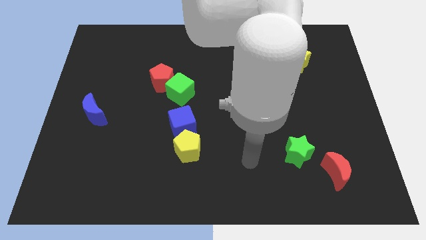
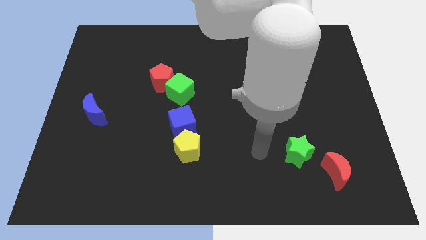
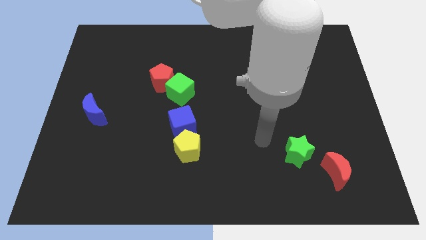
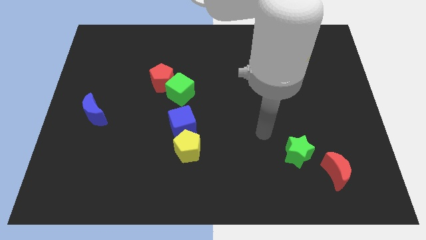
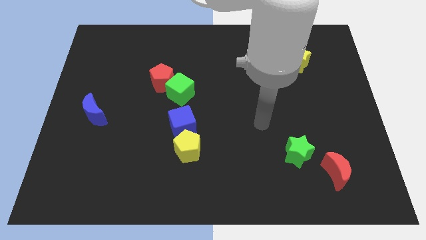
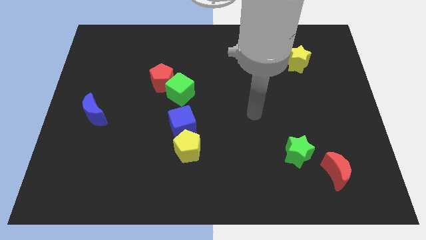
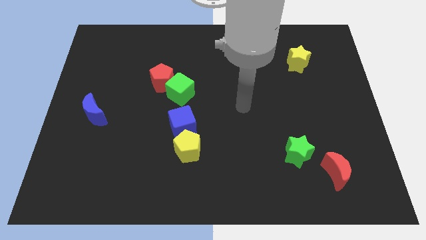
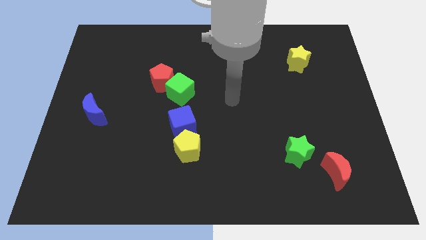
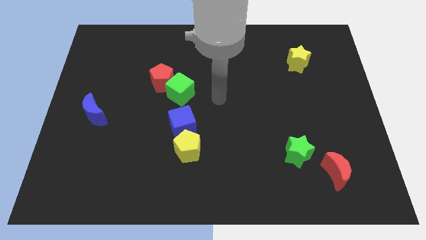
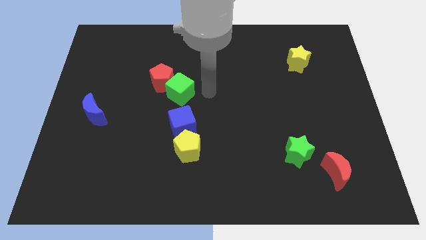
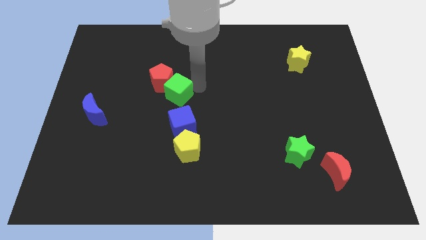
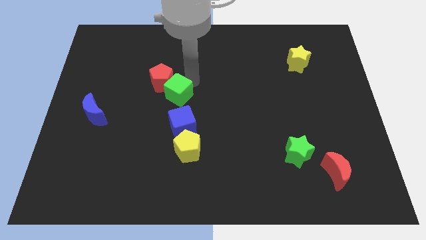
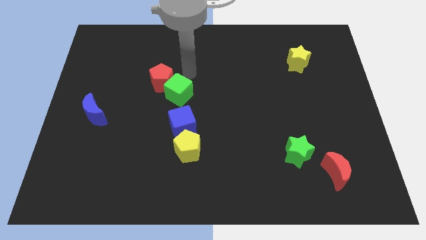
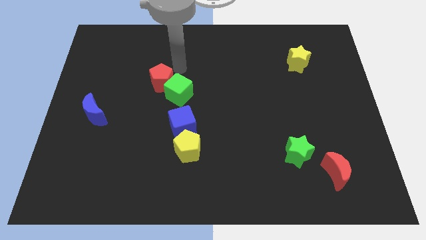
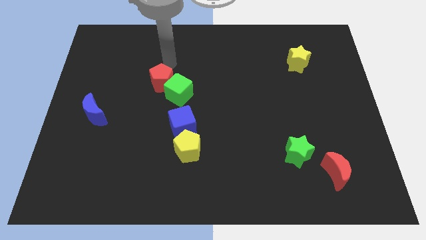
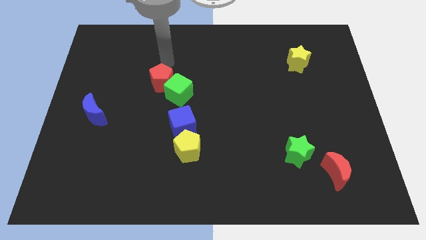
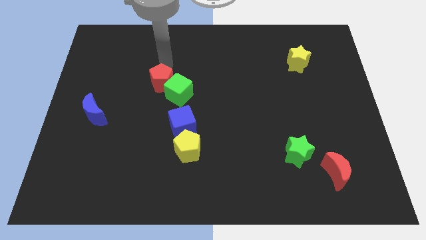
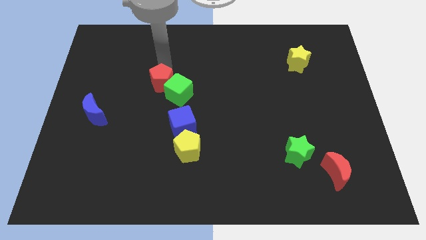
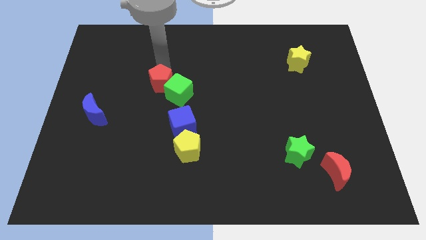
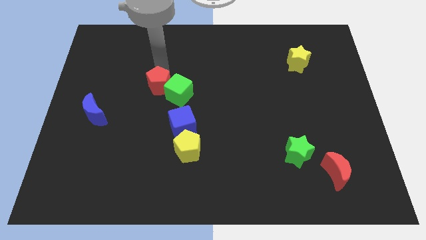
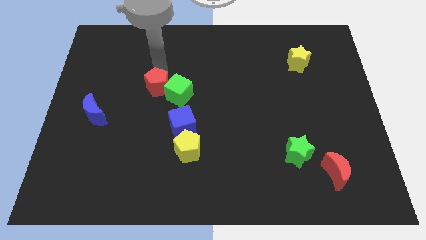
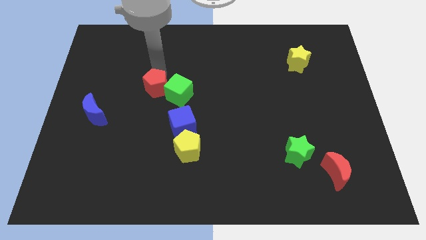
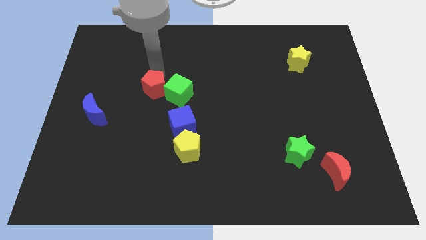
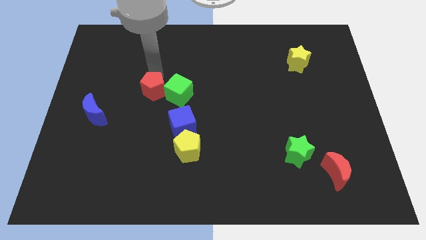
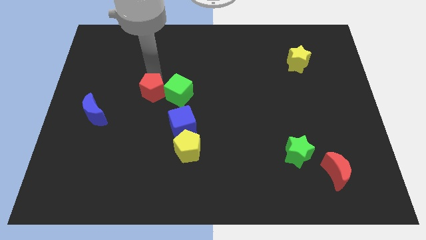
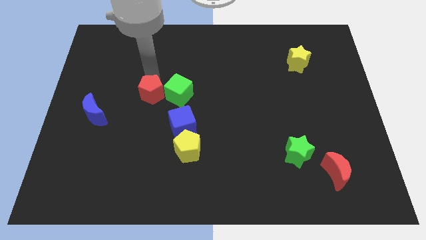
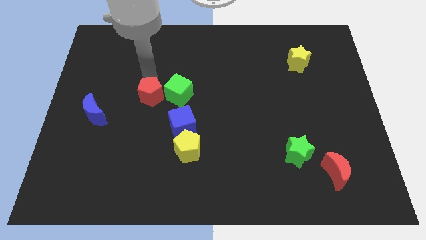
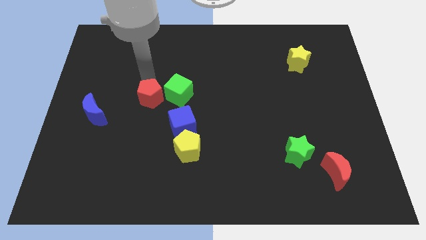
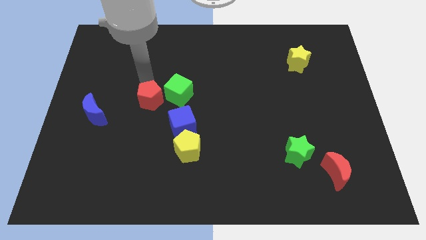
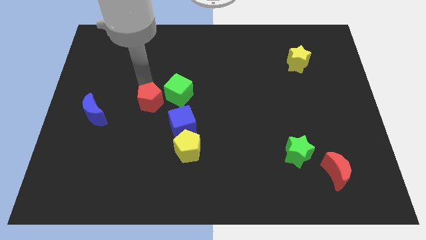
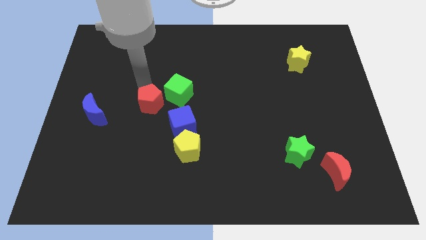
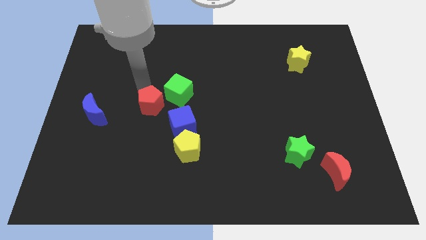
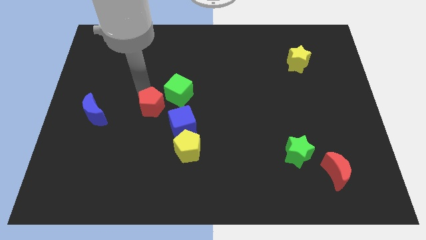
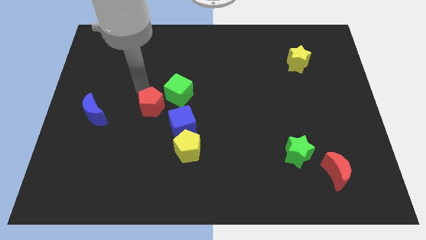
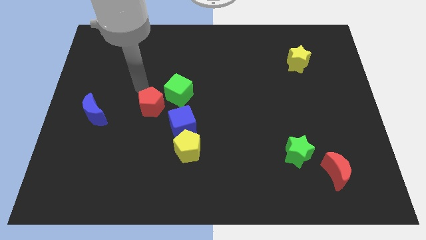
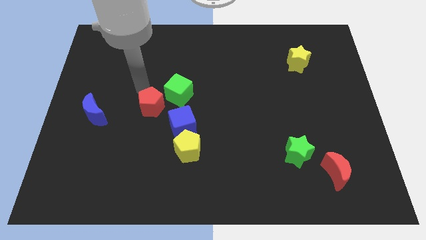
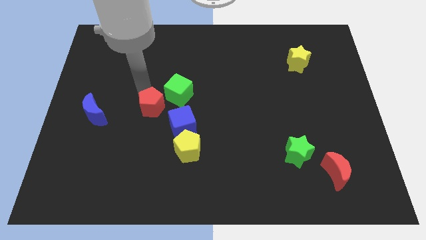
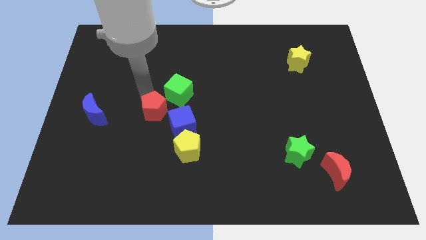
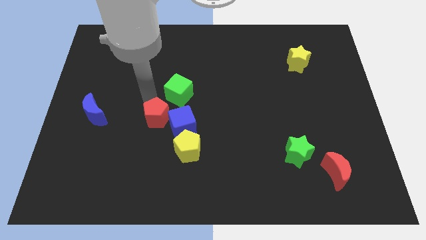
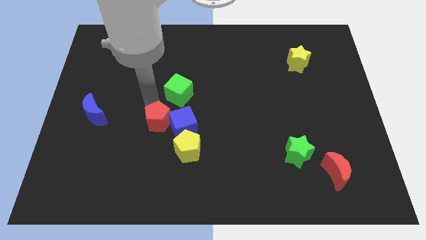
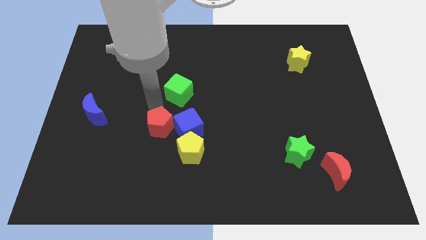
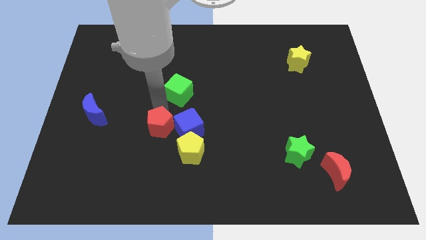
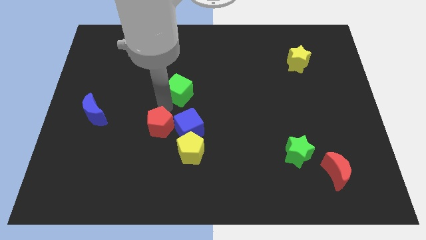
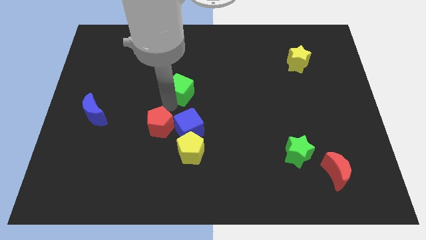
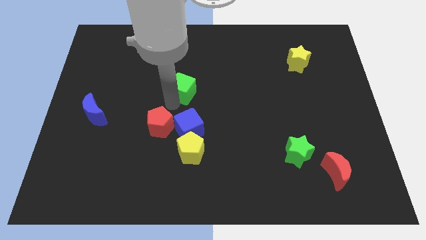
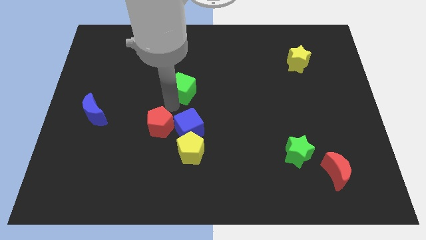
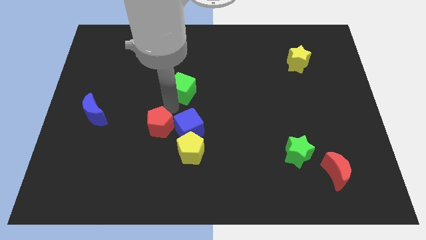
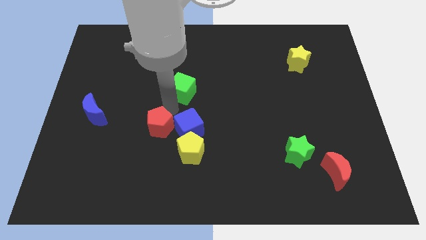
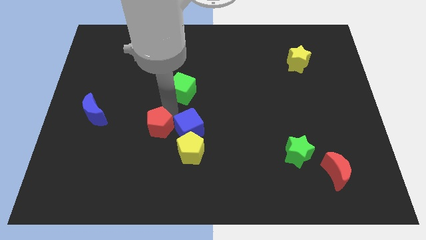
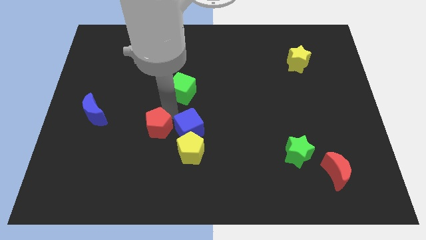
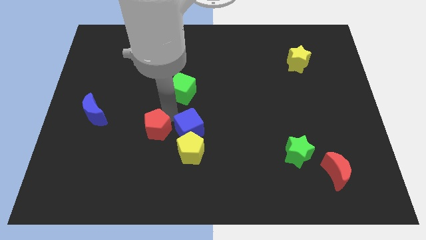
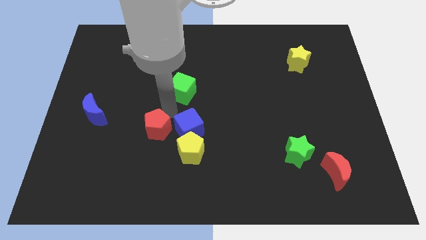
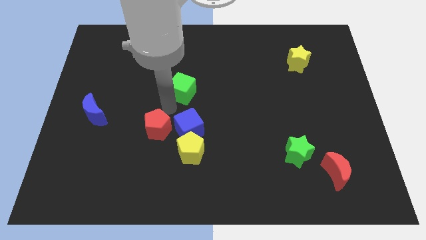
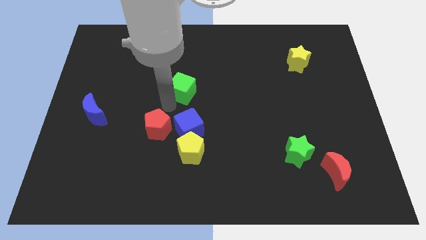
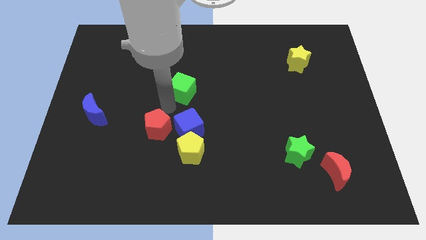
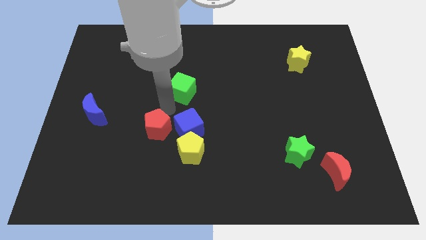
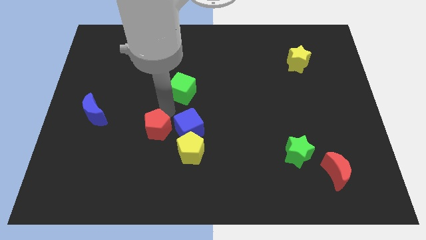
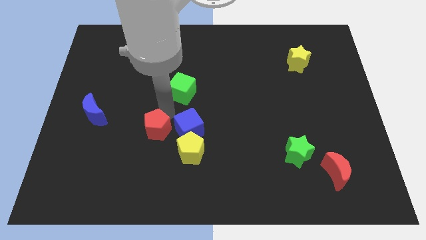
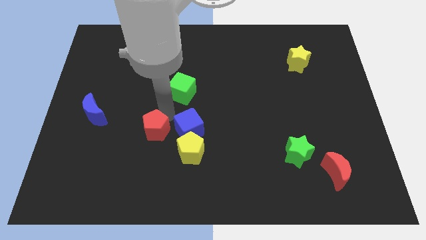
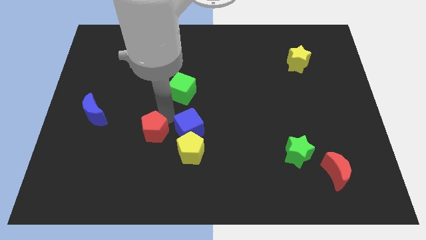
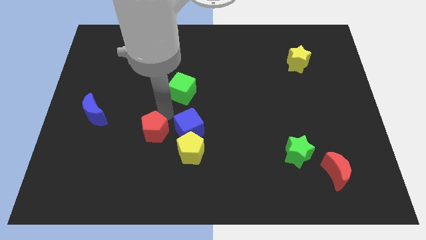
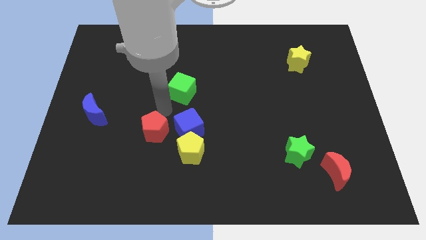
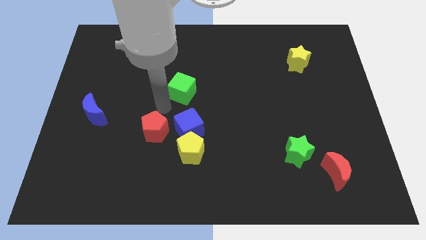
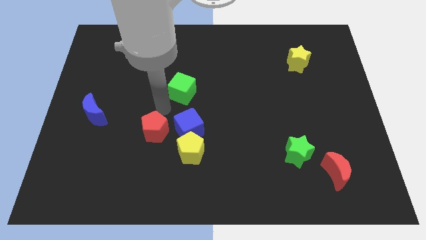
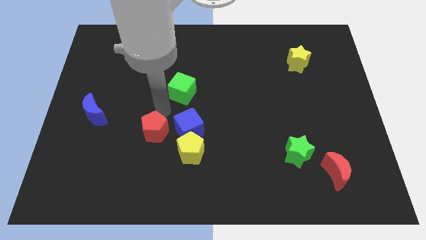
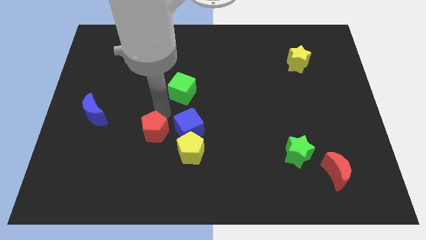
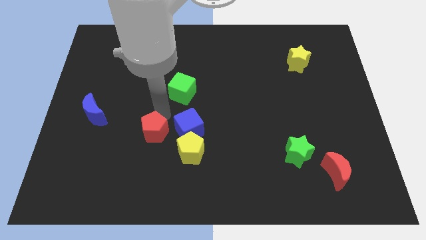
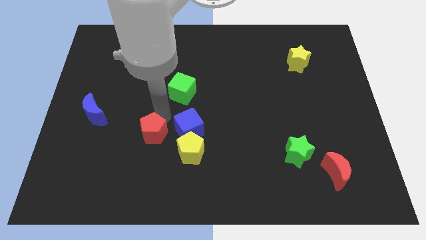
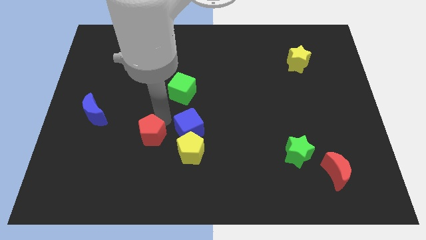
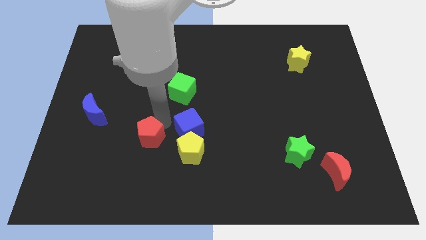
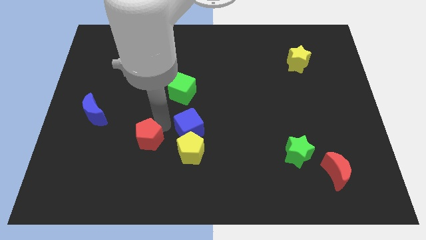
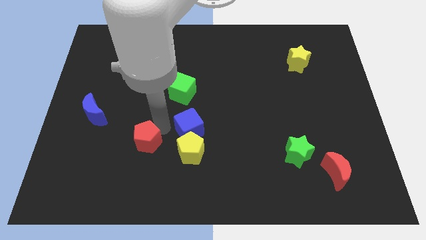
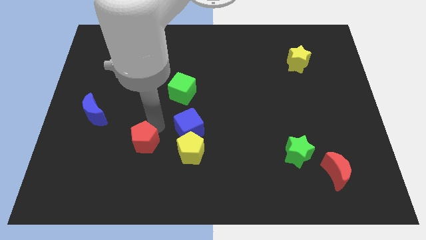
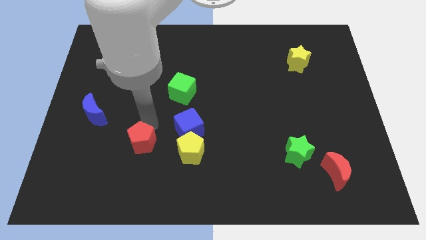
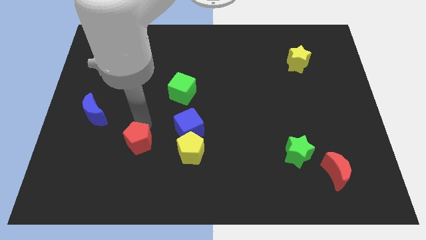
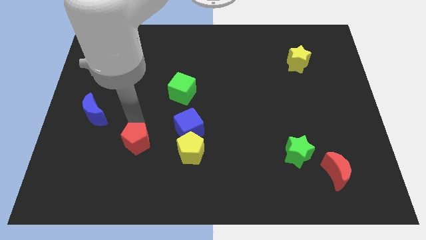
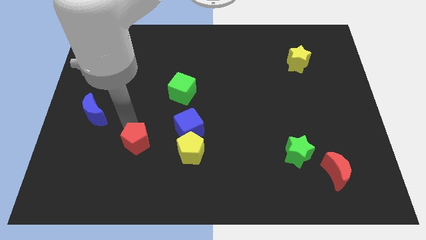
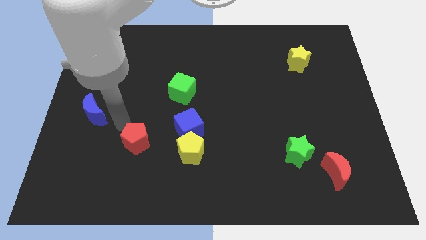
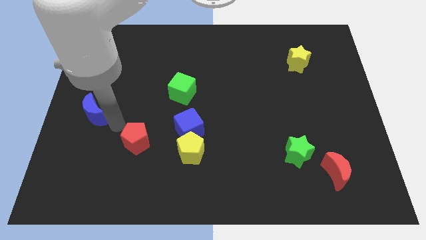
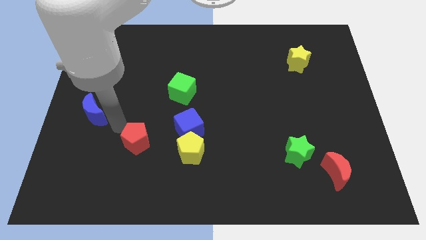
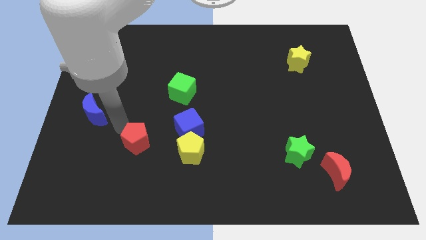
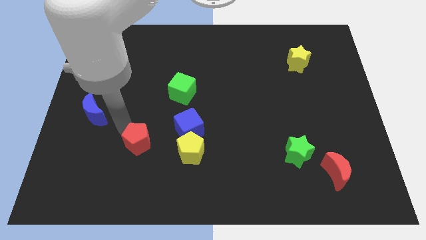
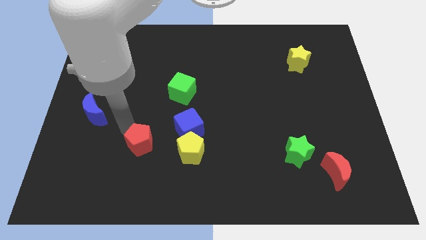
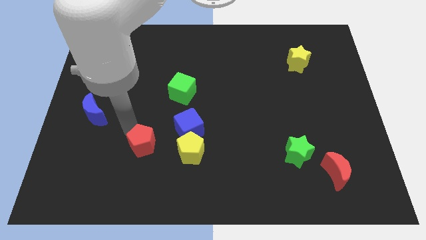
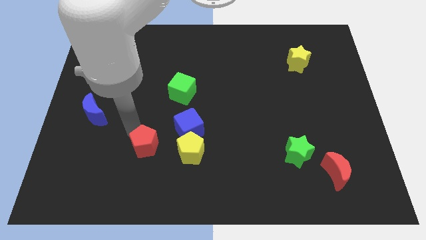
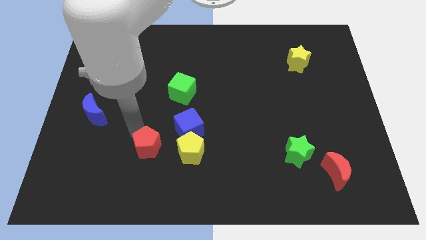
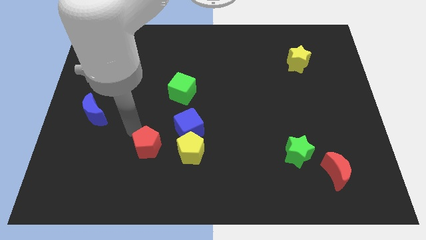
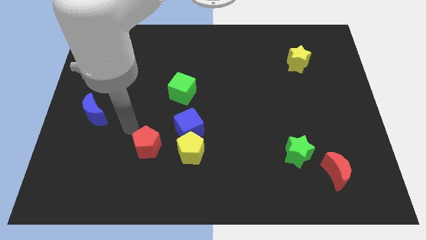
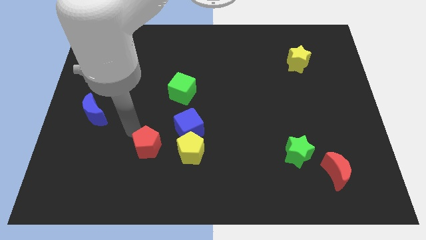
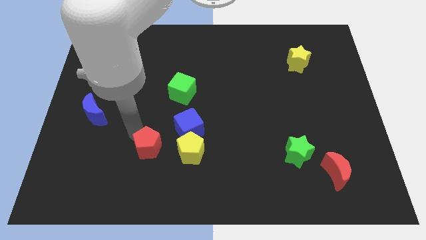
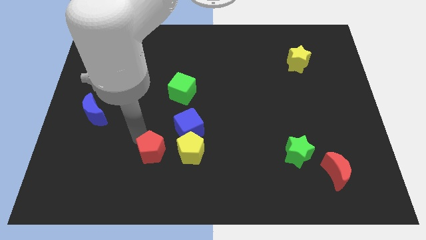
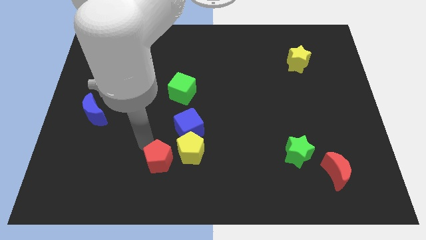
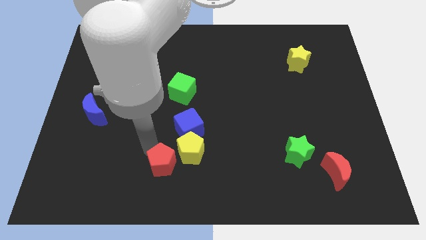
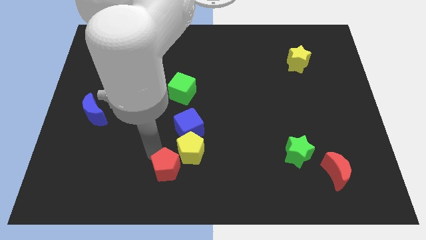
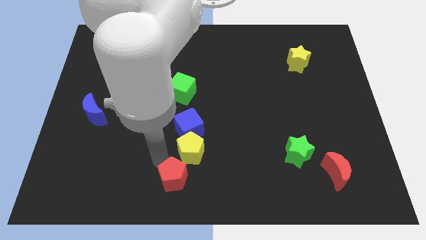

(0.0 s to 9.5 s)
slide the red pentagon to the bottom side
